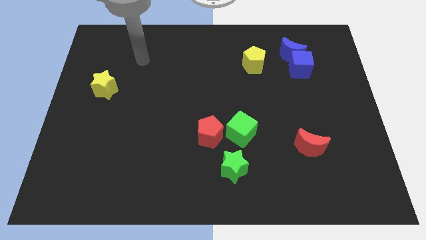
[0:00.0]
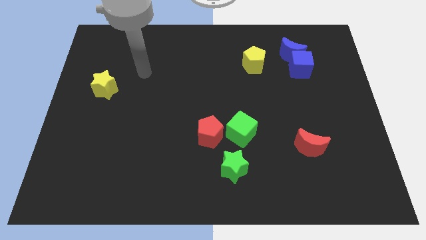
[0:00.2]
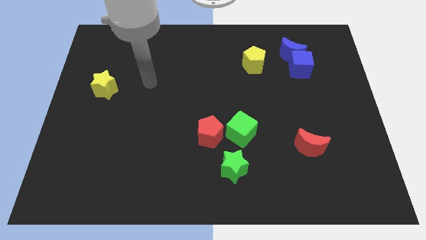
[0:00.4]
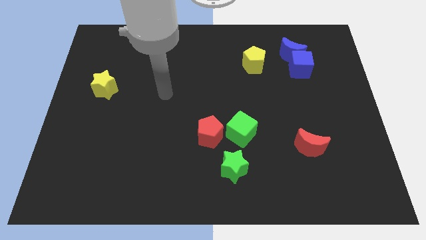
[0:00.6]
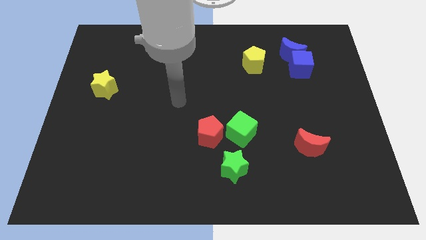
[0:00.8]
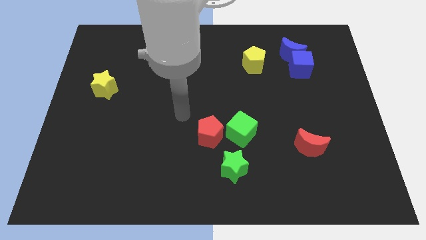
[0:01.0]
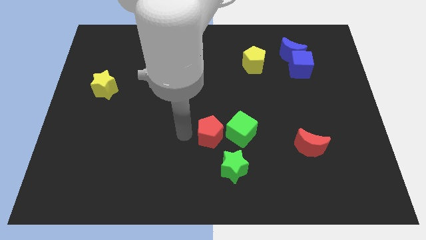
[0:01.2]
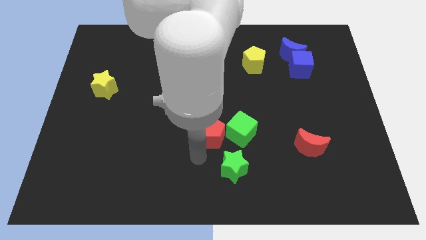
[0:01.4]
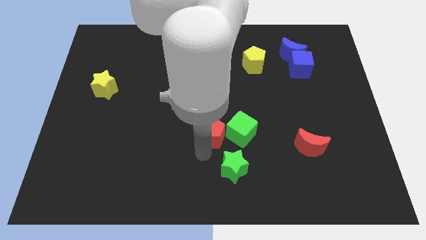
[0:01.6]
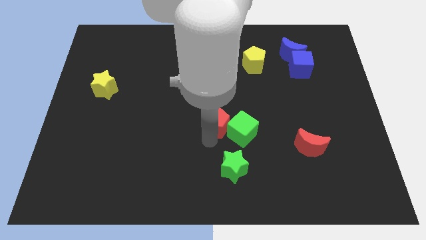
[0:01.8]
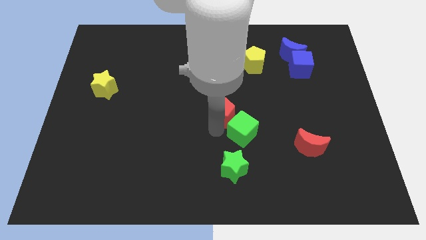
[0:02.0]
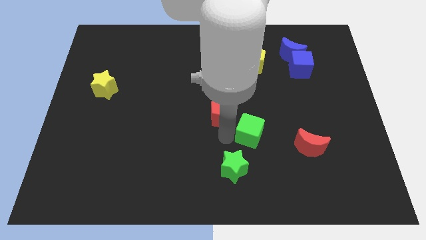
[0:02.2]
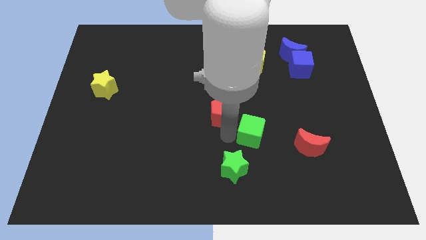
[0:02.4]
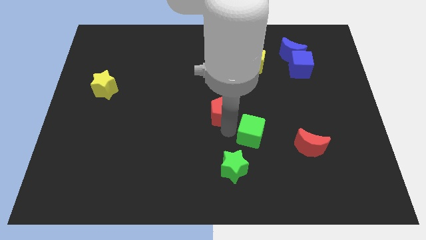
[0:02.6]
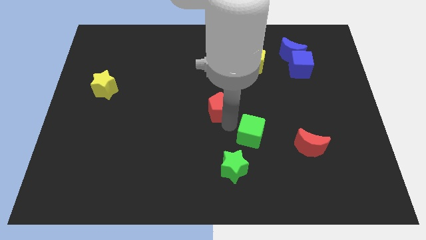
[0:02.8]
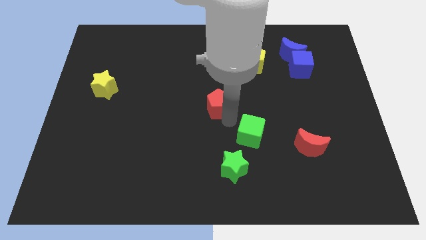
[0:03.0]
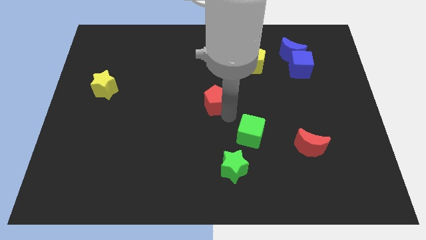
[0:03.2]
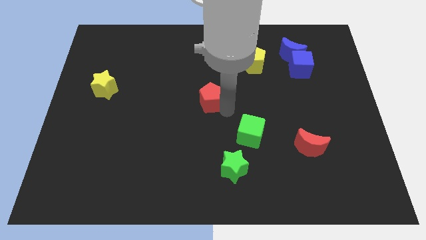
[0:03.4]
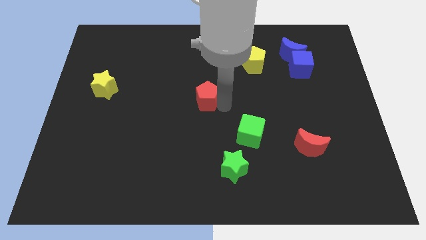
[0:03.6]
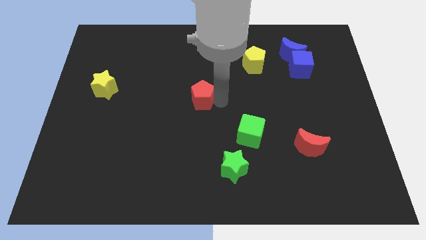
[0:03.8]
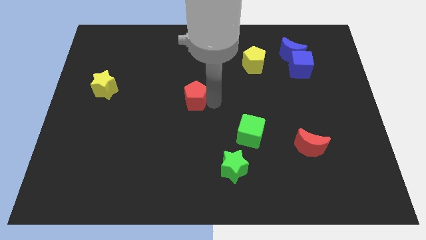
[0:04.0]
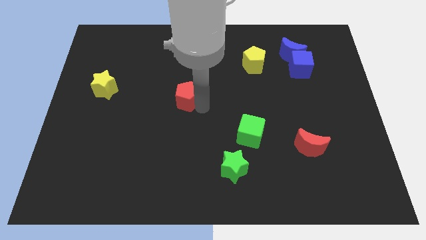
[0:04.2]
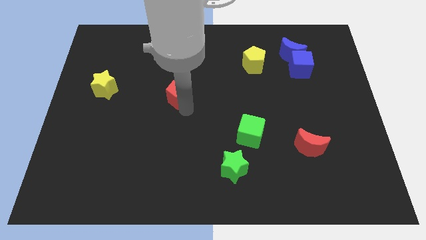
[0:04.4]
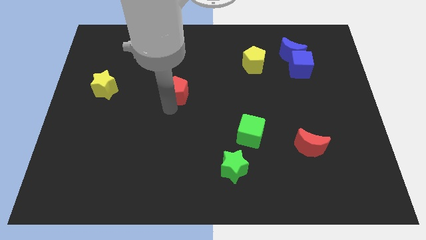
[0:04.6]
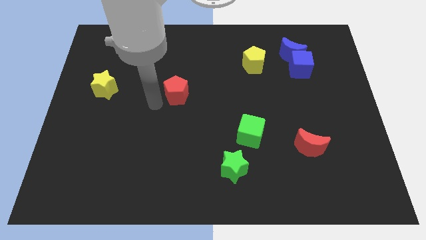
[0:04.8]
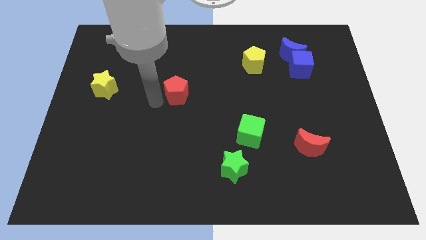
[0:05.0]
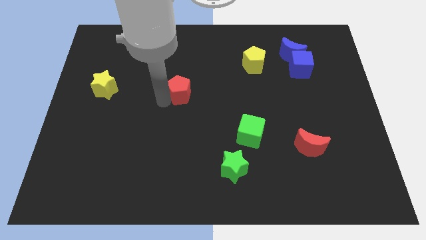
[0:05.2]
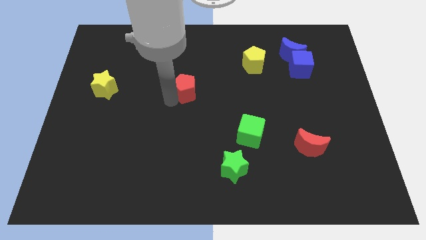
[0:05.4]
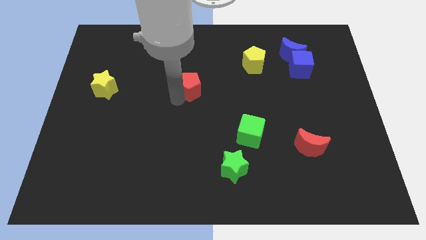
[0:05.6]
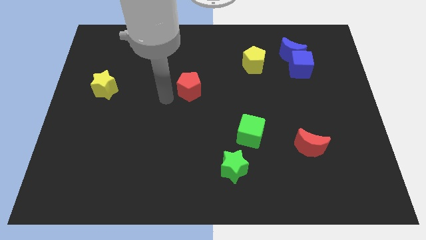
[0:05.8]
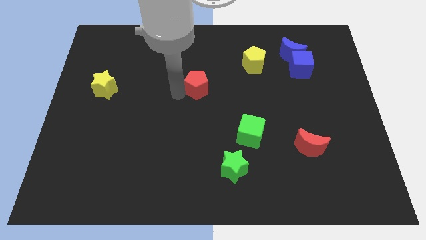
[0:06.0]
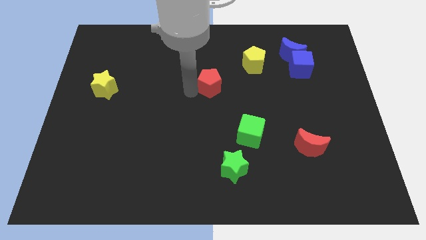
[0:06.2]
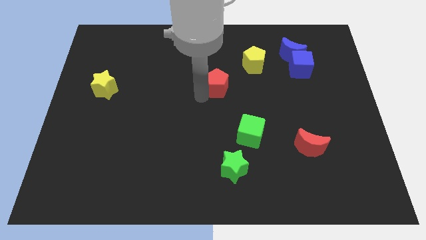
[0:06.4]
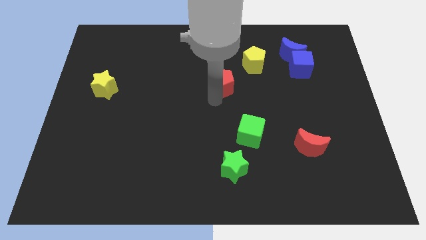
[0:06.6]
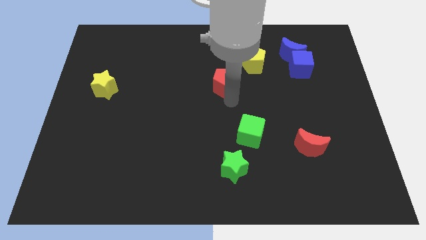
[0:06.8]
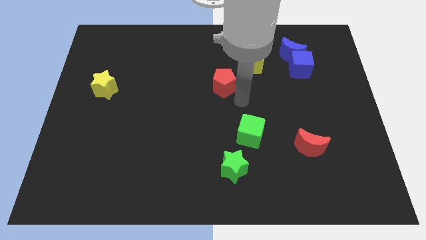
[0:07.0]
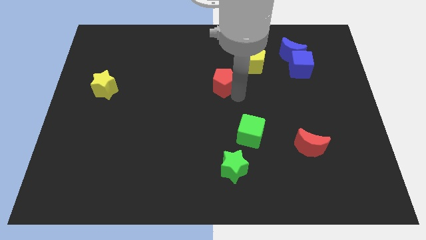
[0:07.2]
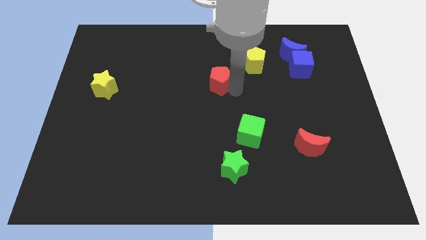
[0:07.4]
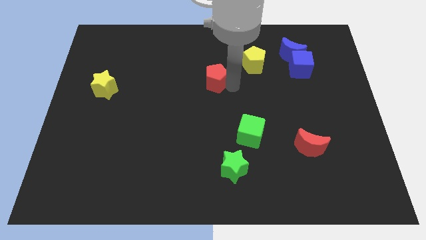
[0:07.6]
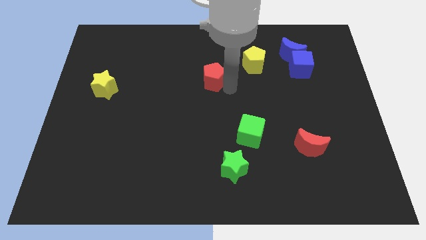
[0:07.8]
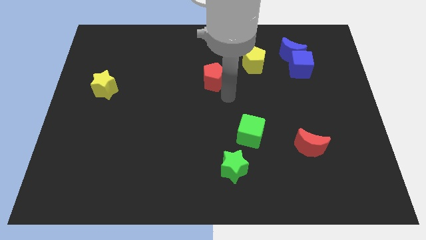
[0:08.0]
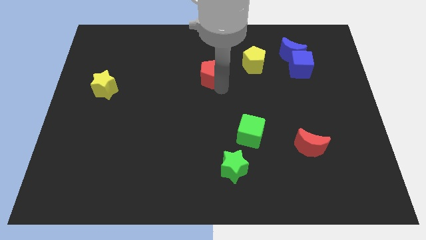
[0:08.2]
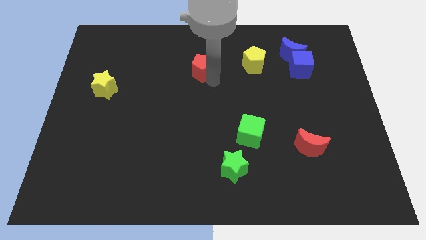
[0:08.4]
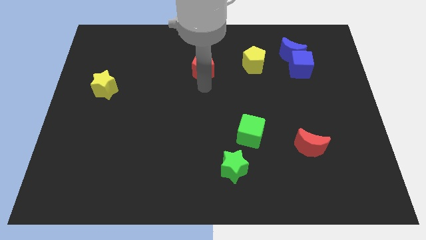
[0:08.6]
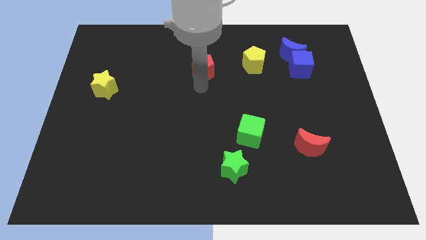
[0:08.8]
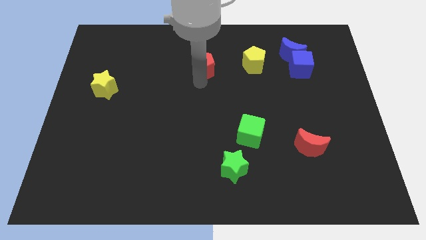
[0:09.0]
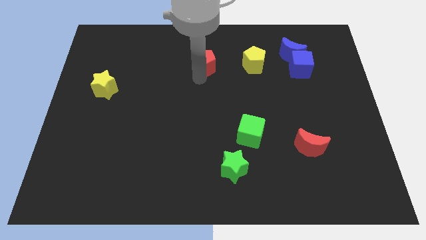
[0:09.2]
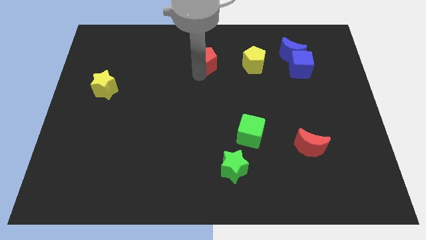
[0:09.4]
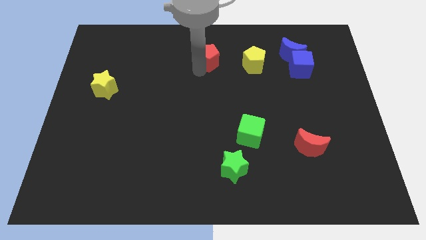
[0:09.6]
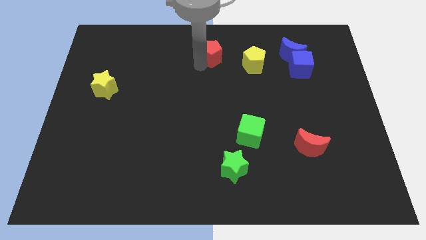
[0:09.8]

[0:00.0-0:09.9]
slide the red pentagon to the top side

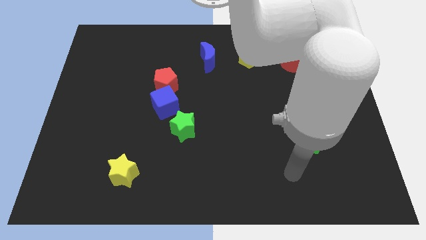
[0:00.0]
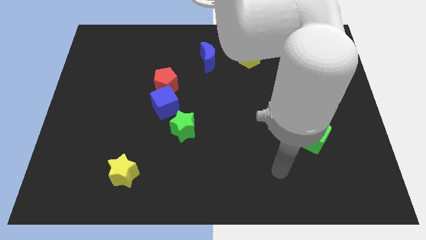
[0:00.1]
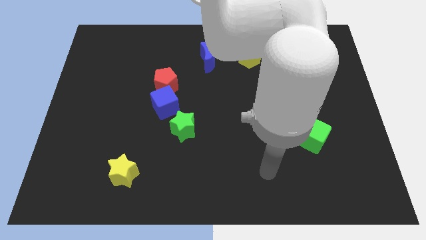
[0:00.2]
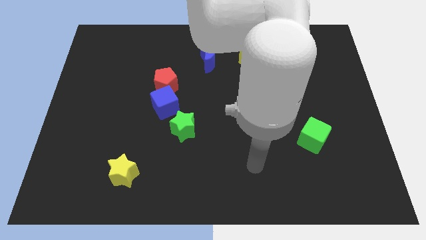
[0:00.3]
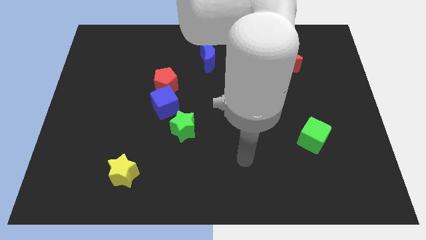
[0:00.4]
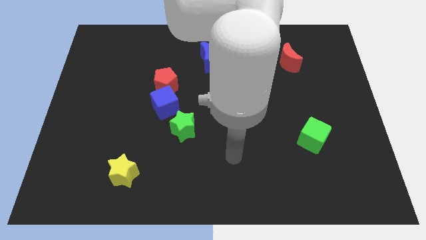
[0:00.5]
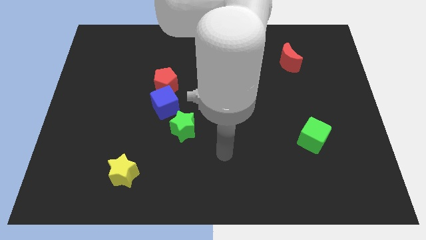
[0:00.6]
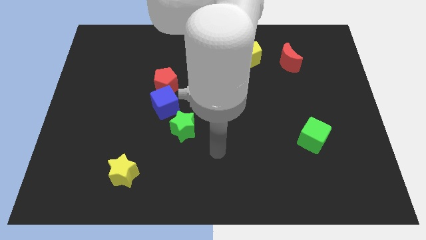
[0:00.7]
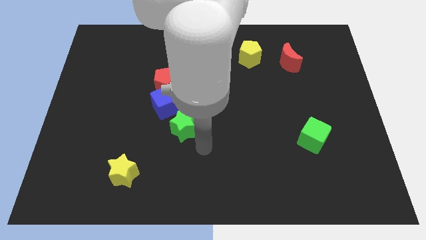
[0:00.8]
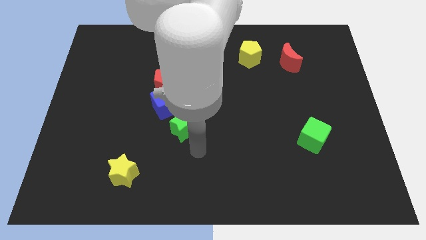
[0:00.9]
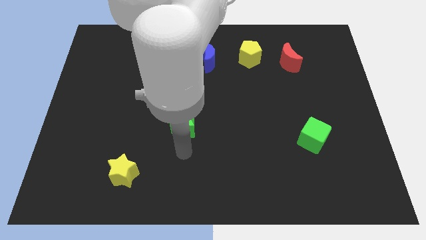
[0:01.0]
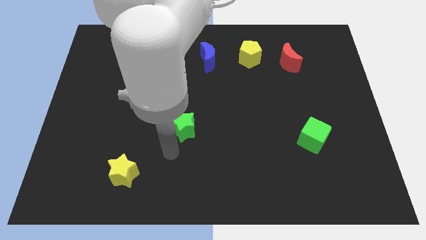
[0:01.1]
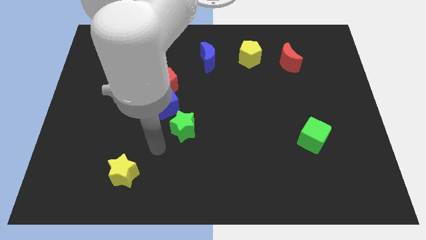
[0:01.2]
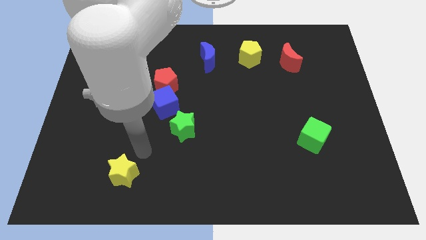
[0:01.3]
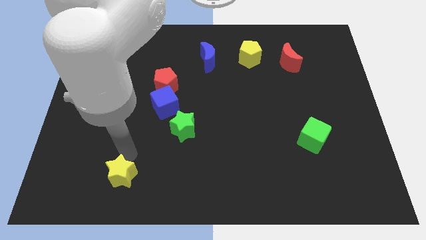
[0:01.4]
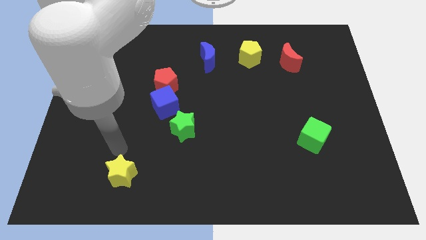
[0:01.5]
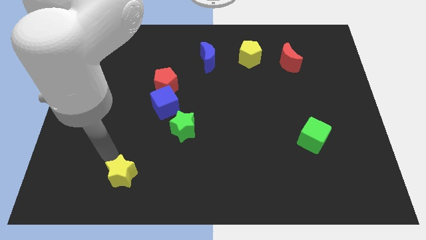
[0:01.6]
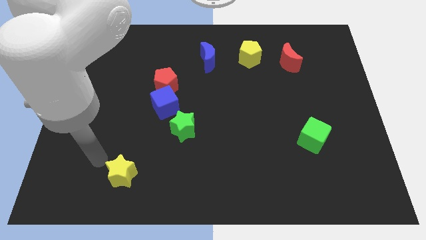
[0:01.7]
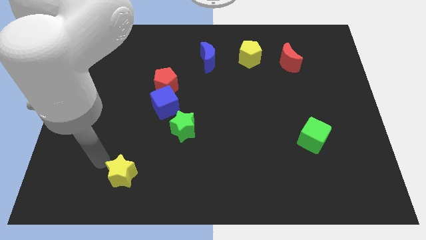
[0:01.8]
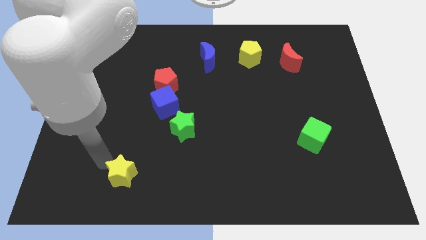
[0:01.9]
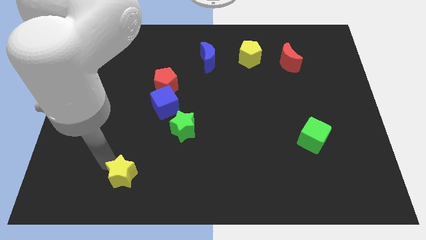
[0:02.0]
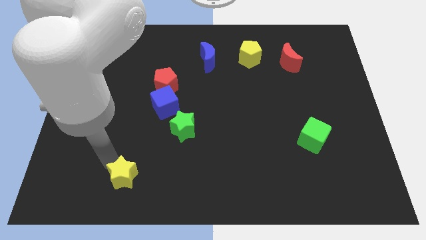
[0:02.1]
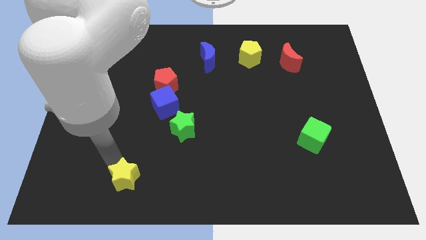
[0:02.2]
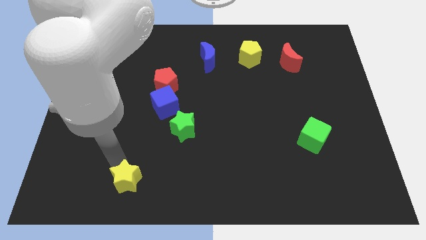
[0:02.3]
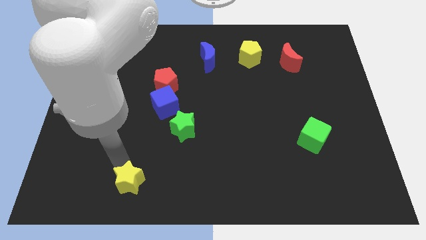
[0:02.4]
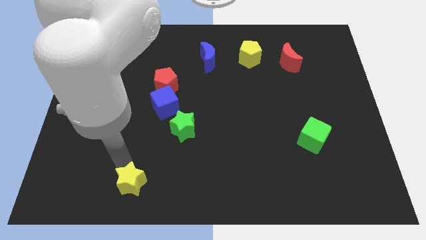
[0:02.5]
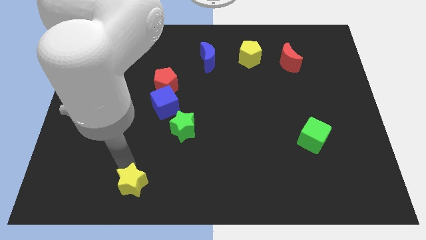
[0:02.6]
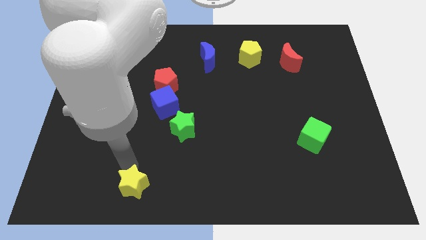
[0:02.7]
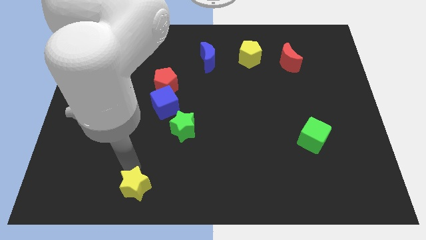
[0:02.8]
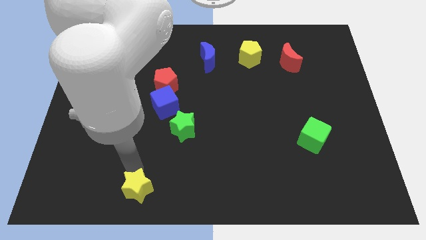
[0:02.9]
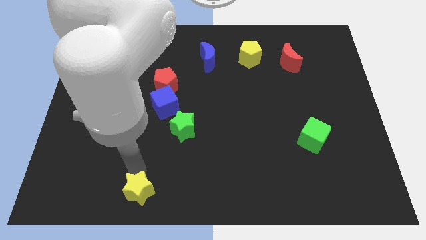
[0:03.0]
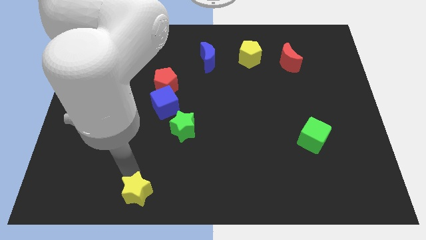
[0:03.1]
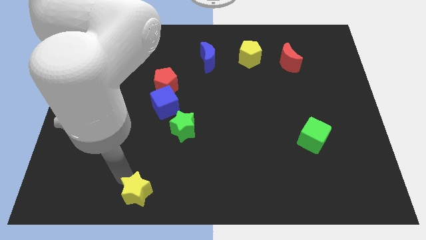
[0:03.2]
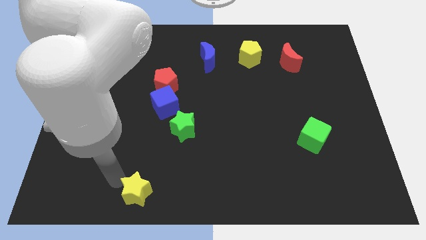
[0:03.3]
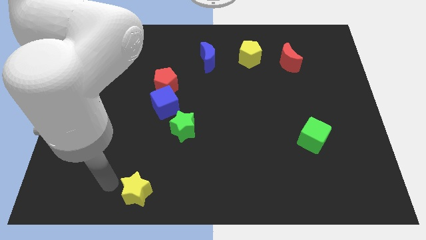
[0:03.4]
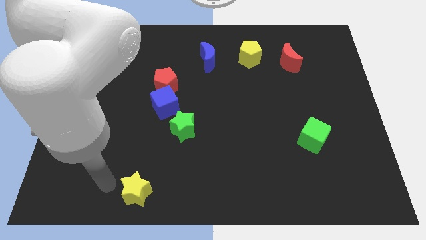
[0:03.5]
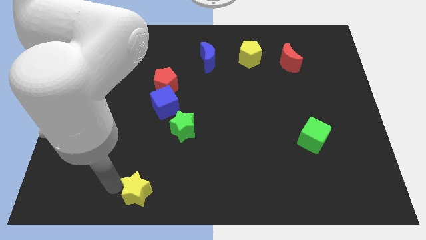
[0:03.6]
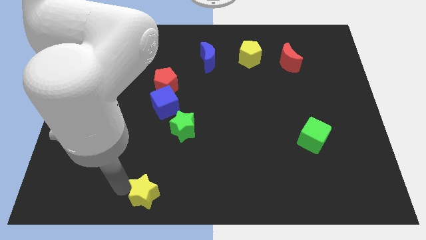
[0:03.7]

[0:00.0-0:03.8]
slide the yellow star to the bottom
